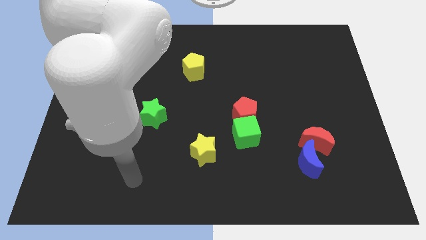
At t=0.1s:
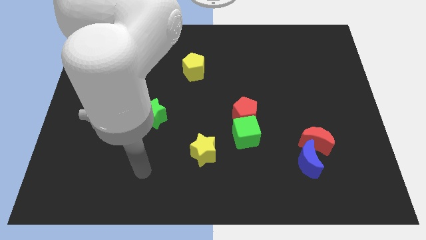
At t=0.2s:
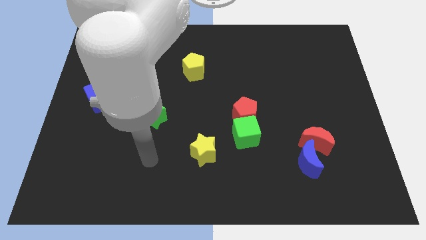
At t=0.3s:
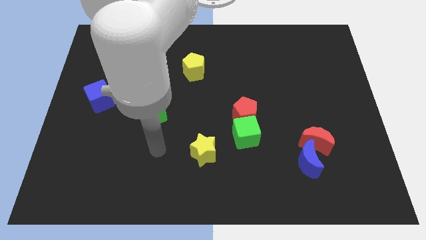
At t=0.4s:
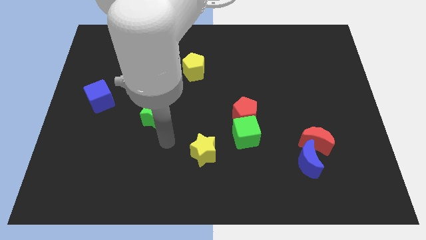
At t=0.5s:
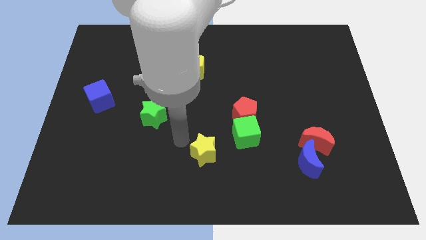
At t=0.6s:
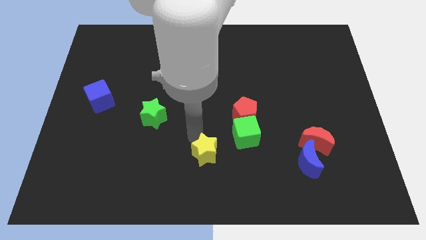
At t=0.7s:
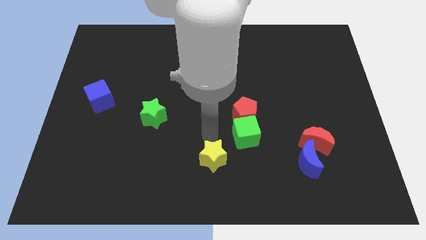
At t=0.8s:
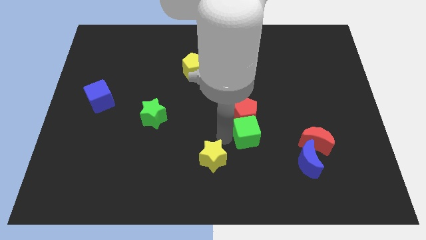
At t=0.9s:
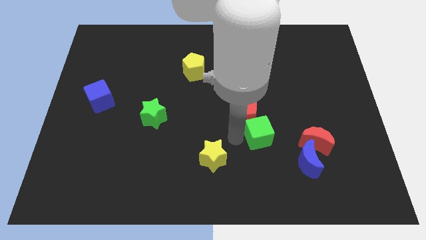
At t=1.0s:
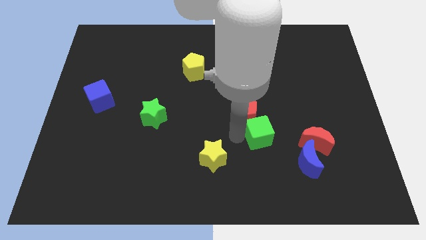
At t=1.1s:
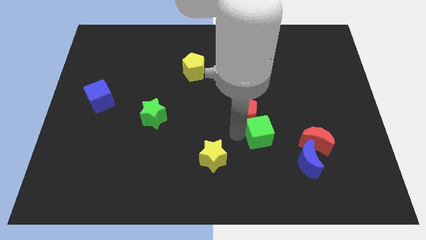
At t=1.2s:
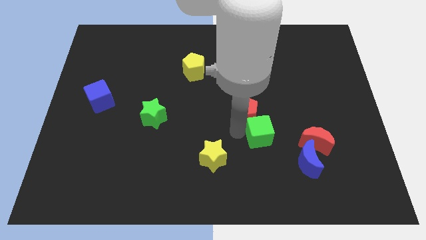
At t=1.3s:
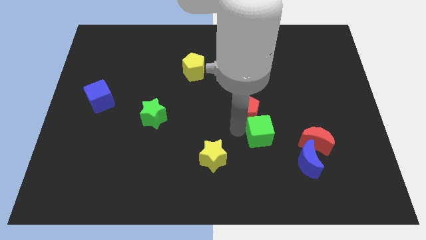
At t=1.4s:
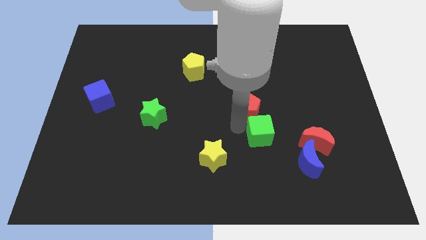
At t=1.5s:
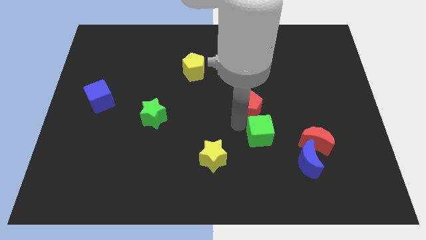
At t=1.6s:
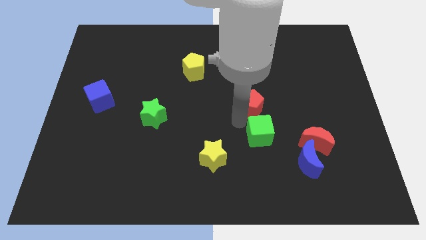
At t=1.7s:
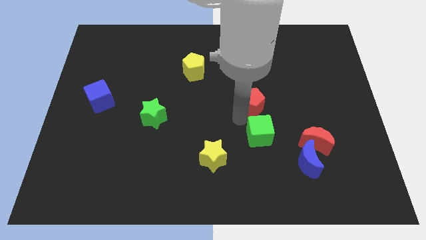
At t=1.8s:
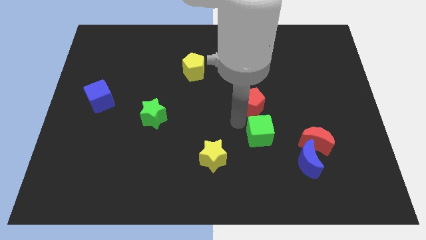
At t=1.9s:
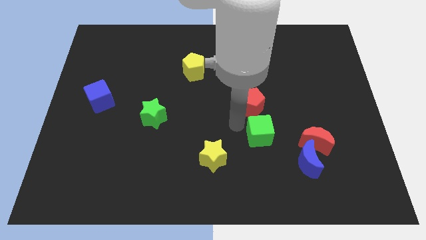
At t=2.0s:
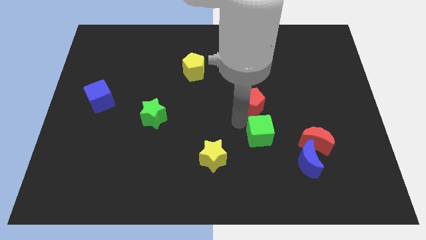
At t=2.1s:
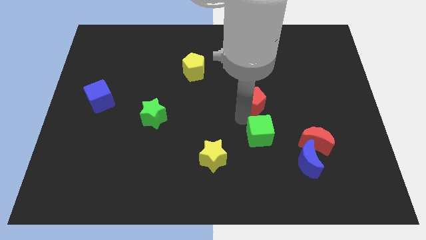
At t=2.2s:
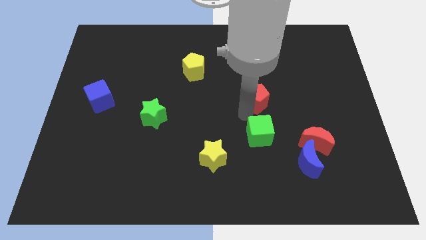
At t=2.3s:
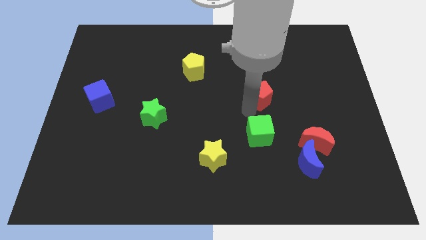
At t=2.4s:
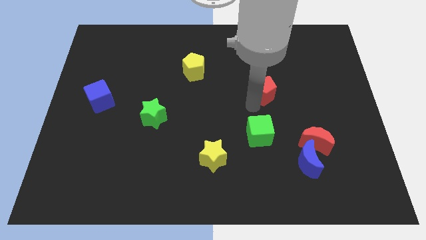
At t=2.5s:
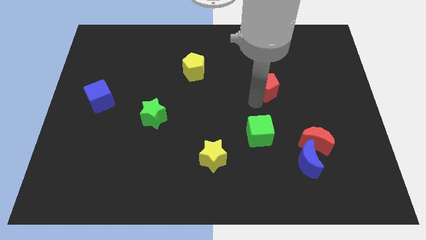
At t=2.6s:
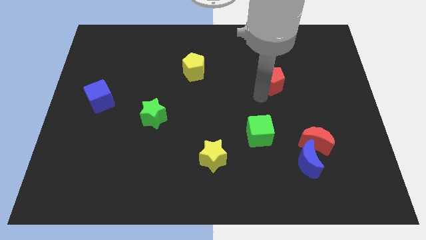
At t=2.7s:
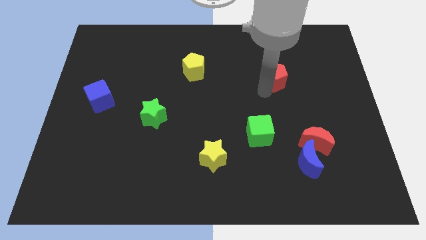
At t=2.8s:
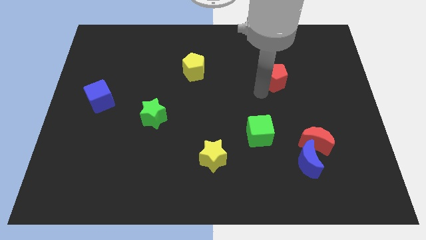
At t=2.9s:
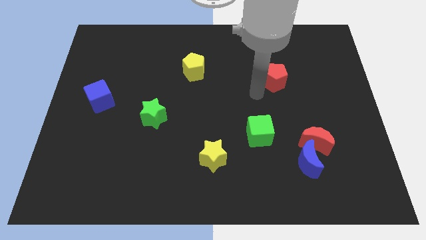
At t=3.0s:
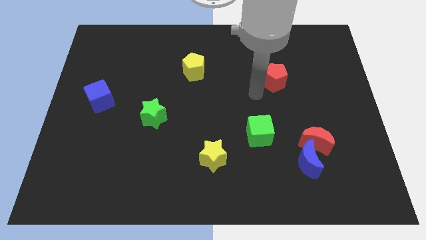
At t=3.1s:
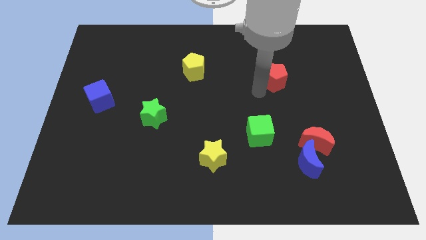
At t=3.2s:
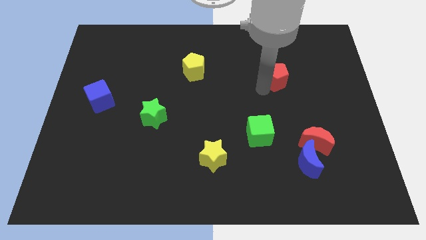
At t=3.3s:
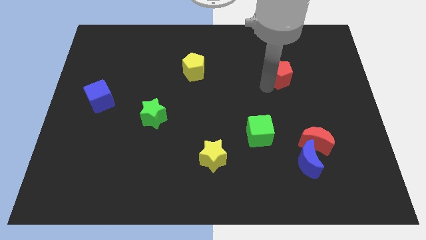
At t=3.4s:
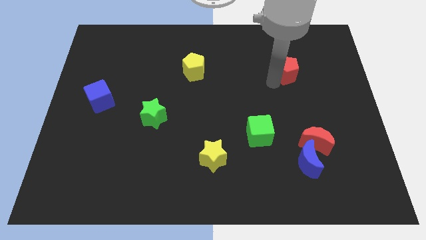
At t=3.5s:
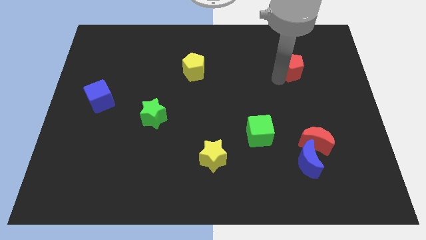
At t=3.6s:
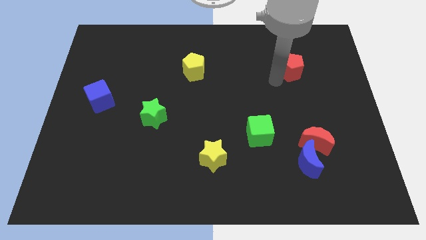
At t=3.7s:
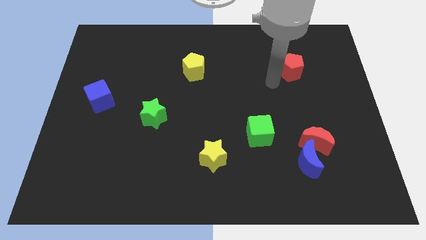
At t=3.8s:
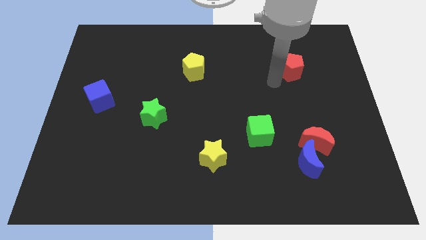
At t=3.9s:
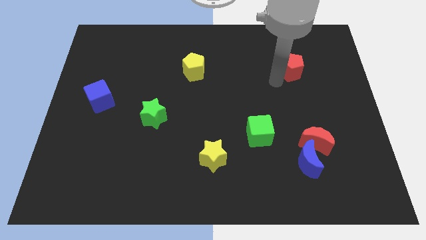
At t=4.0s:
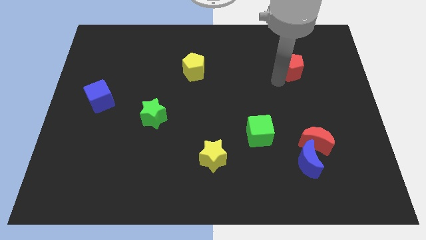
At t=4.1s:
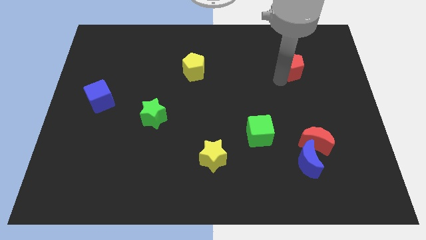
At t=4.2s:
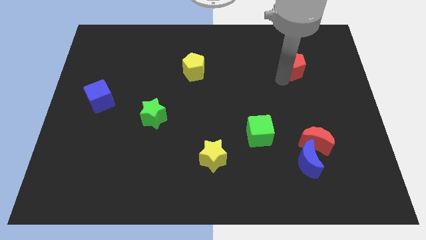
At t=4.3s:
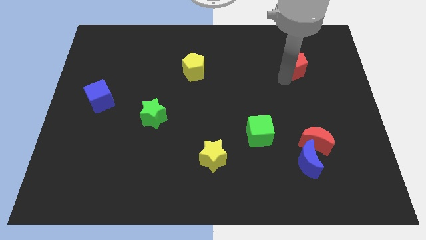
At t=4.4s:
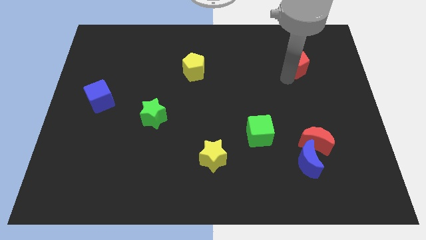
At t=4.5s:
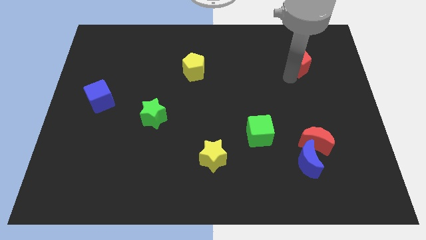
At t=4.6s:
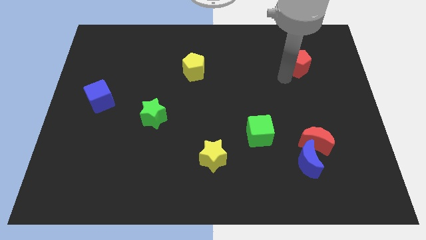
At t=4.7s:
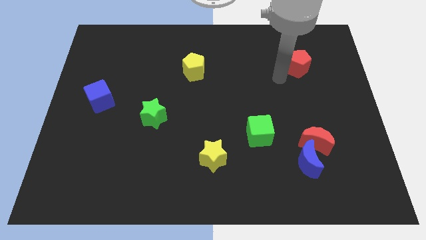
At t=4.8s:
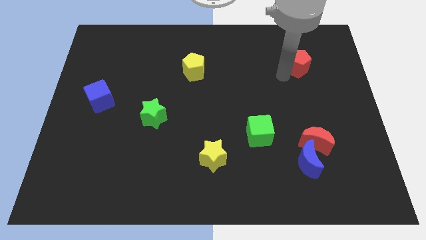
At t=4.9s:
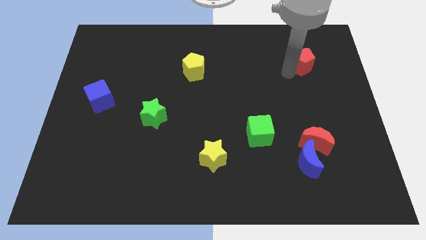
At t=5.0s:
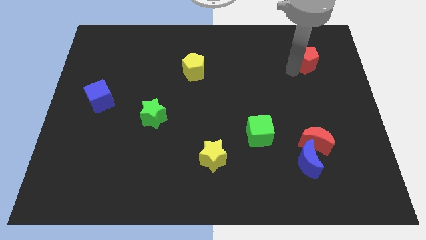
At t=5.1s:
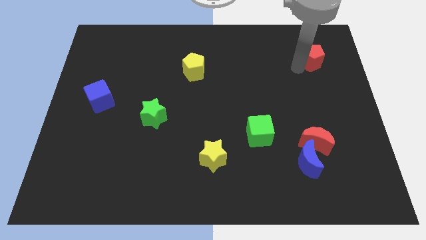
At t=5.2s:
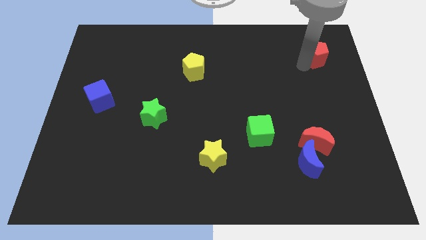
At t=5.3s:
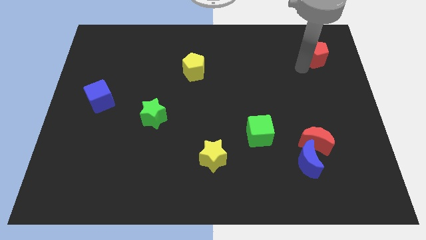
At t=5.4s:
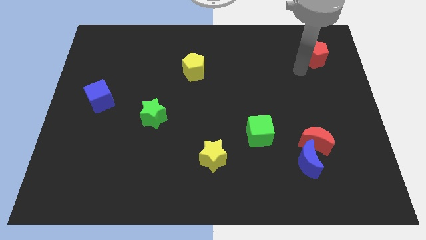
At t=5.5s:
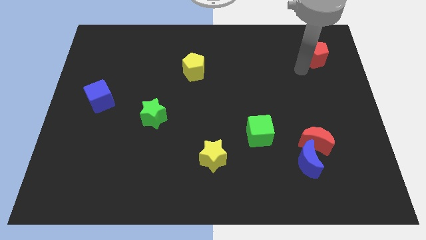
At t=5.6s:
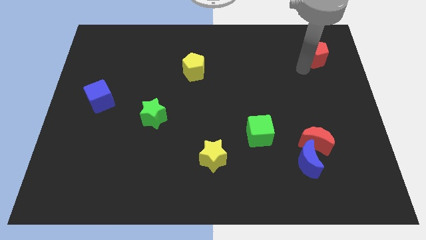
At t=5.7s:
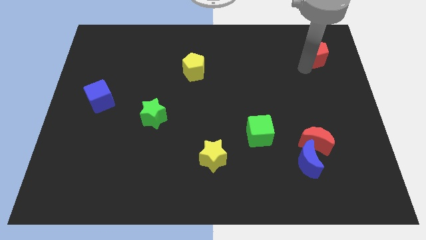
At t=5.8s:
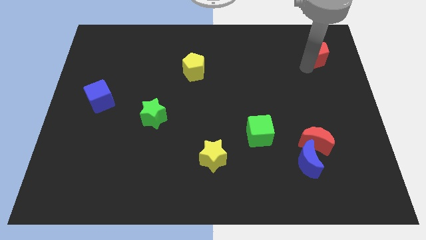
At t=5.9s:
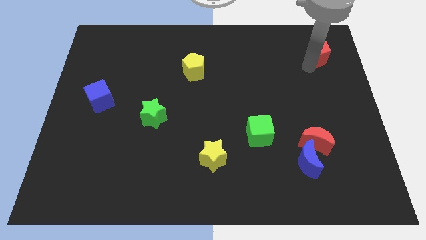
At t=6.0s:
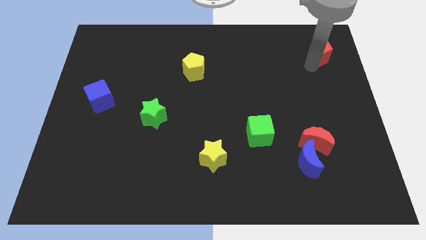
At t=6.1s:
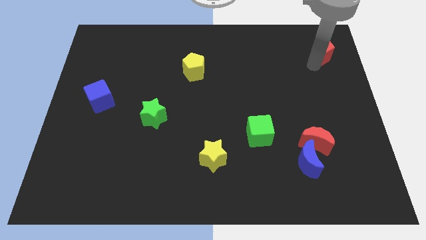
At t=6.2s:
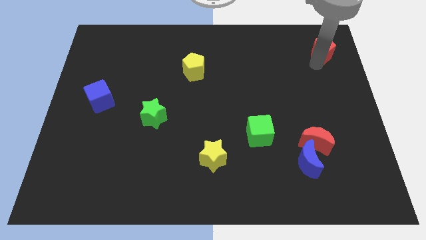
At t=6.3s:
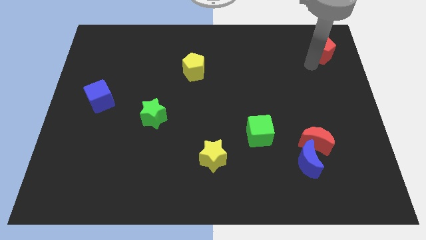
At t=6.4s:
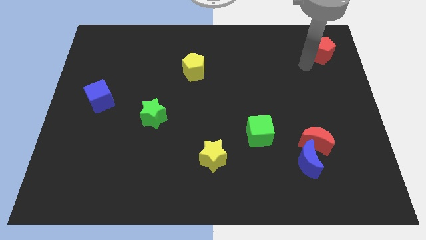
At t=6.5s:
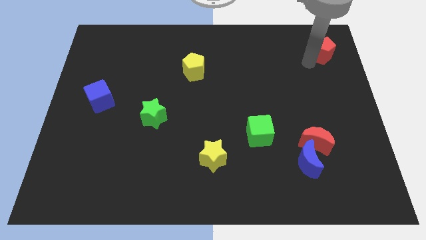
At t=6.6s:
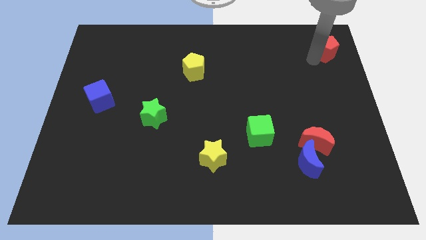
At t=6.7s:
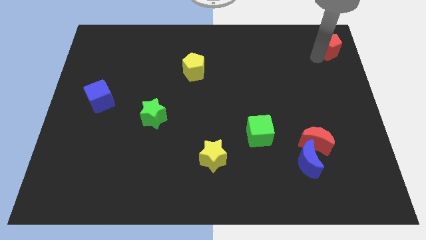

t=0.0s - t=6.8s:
put the red pentagon to the top right of the board

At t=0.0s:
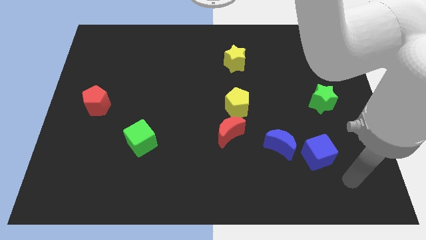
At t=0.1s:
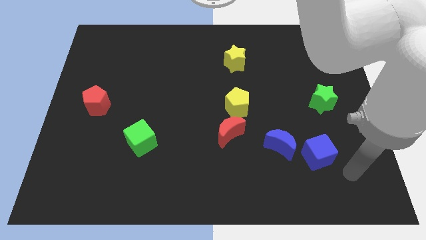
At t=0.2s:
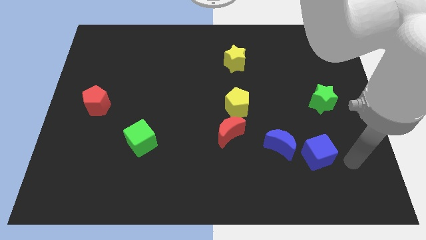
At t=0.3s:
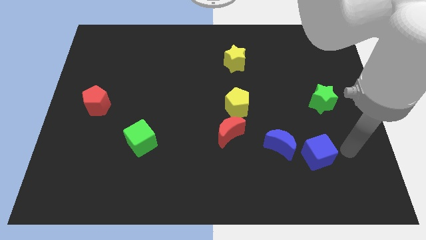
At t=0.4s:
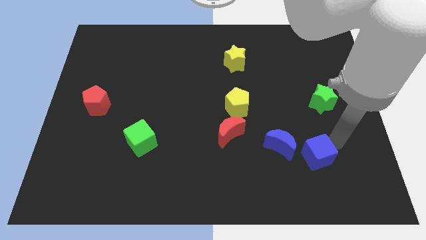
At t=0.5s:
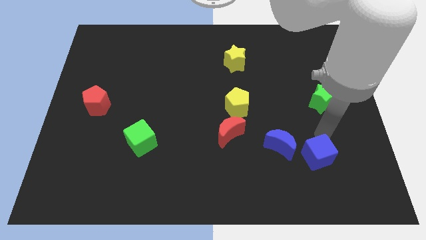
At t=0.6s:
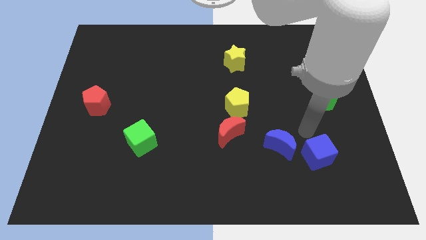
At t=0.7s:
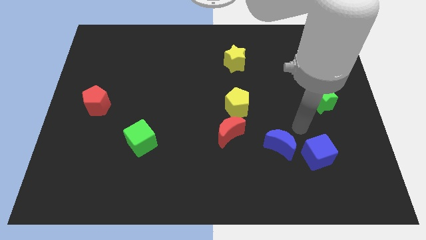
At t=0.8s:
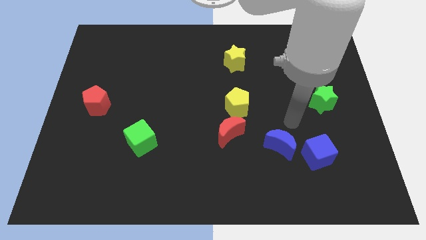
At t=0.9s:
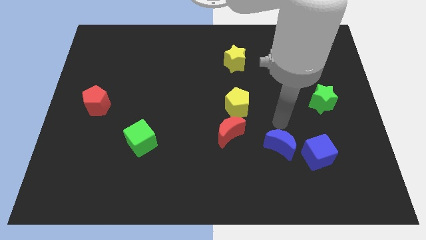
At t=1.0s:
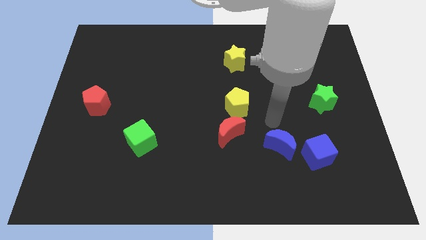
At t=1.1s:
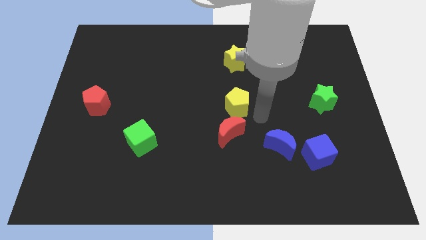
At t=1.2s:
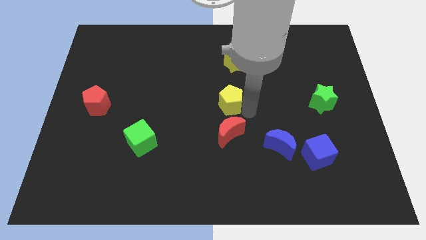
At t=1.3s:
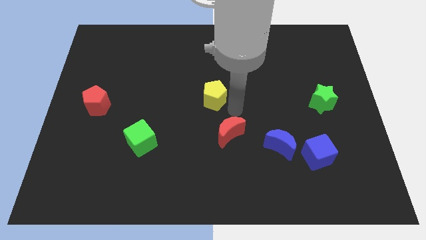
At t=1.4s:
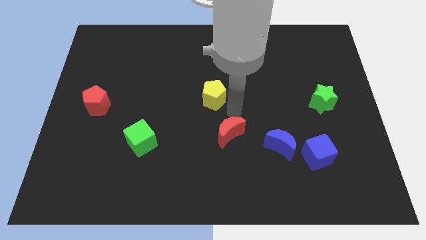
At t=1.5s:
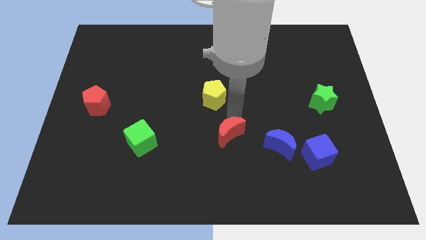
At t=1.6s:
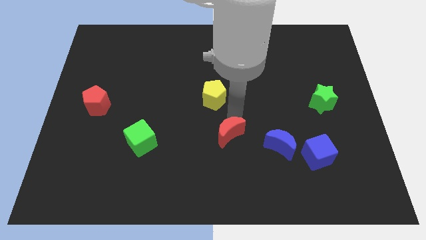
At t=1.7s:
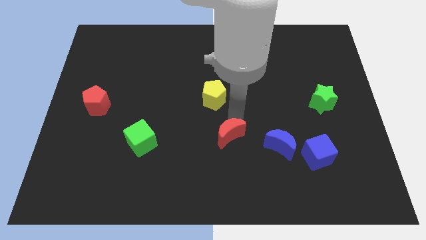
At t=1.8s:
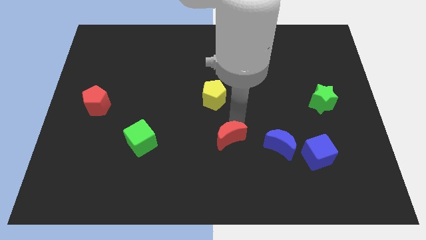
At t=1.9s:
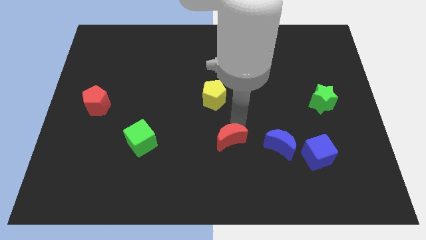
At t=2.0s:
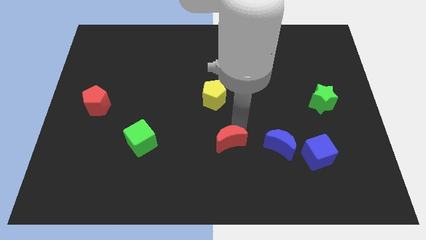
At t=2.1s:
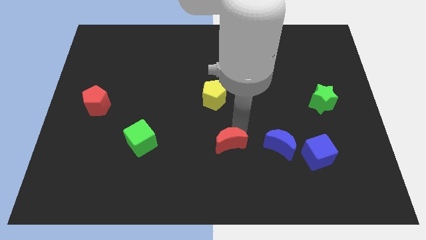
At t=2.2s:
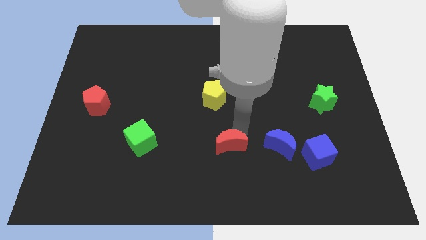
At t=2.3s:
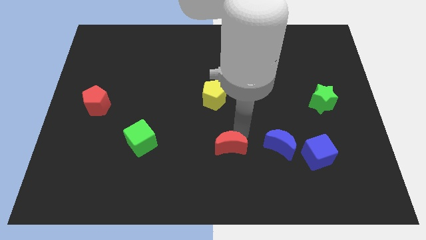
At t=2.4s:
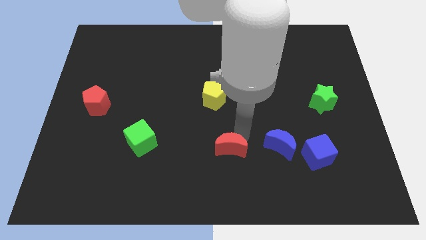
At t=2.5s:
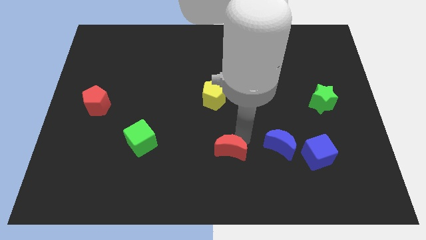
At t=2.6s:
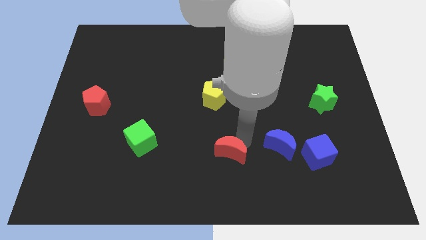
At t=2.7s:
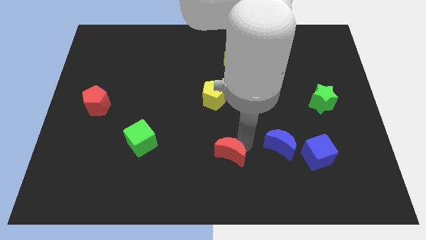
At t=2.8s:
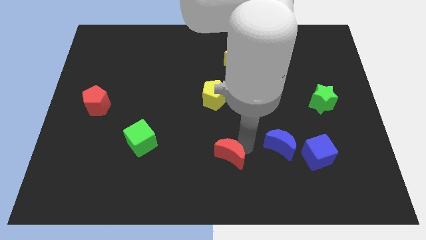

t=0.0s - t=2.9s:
put the red moon to the bottom
